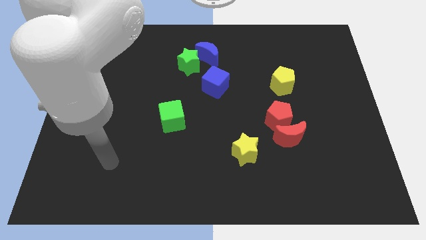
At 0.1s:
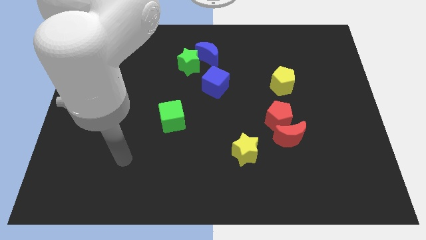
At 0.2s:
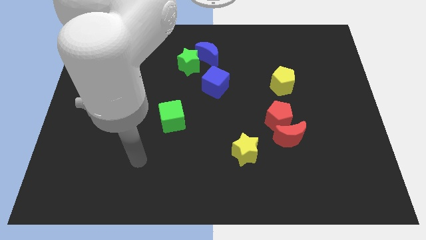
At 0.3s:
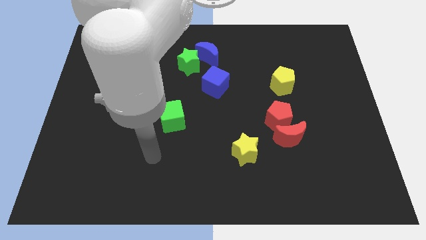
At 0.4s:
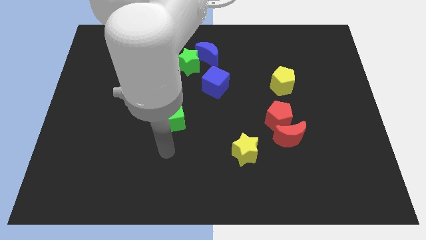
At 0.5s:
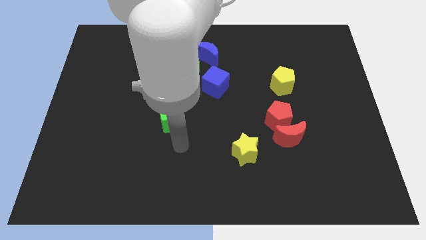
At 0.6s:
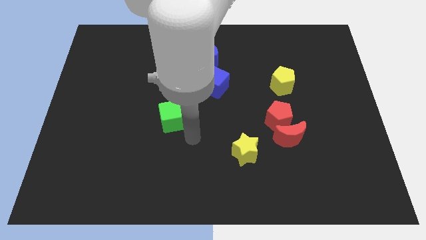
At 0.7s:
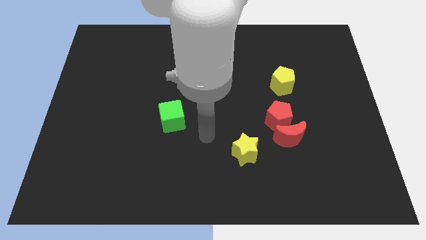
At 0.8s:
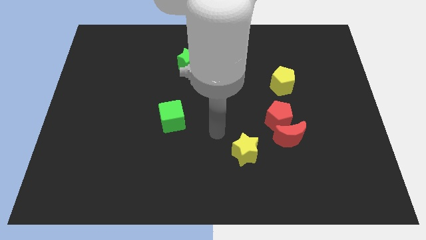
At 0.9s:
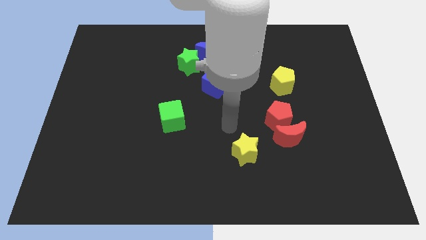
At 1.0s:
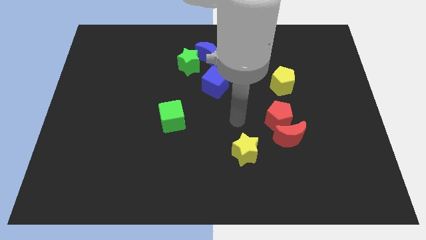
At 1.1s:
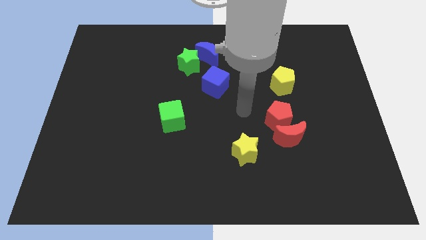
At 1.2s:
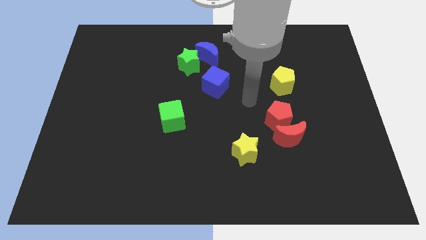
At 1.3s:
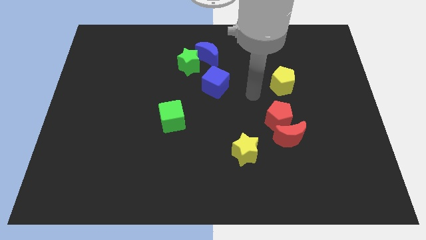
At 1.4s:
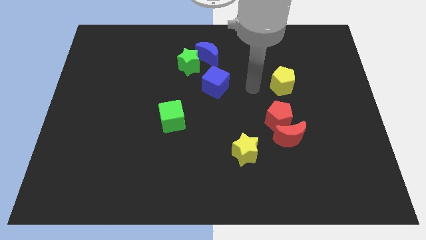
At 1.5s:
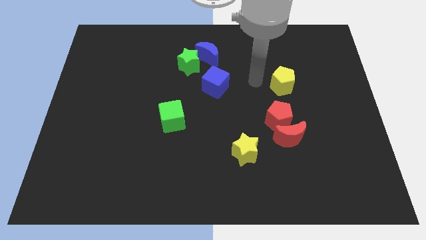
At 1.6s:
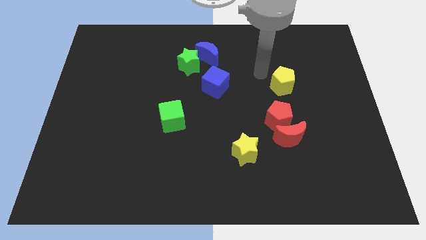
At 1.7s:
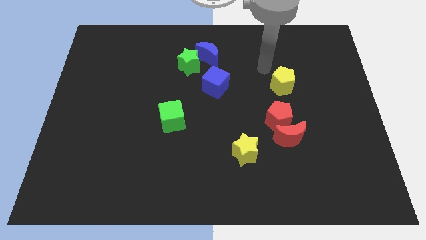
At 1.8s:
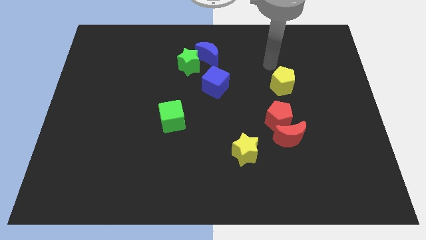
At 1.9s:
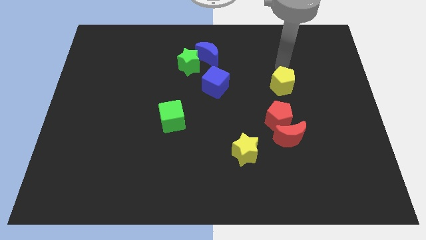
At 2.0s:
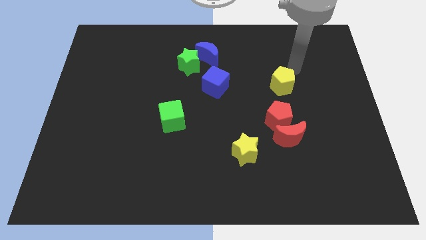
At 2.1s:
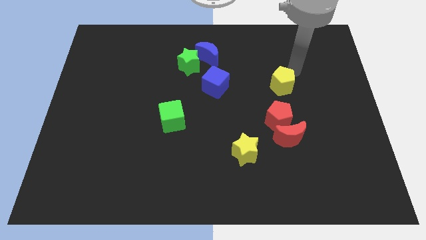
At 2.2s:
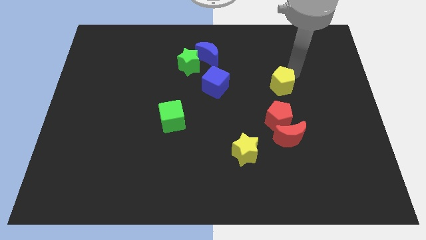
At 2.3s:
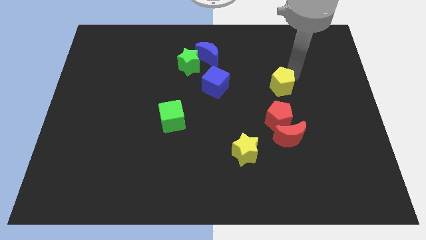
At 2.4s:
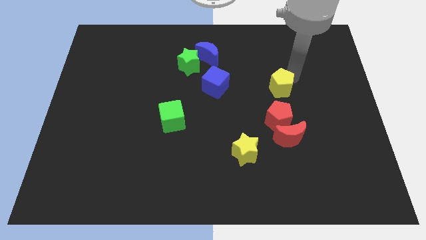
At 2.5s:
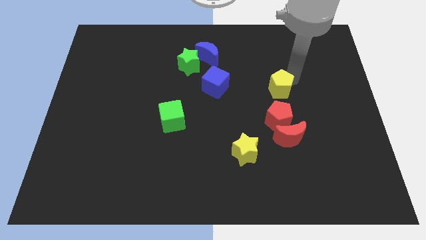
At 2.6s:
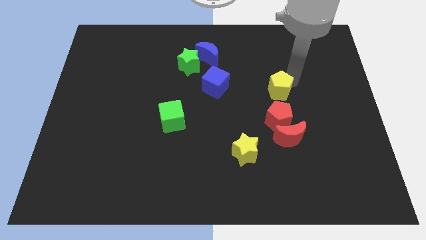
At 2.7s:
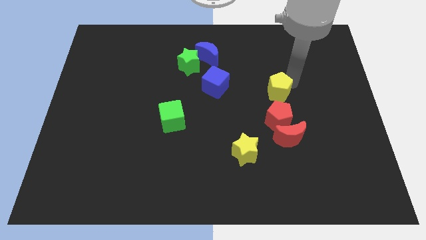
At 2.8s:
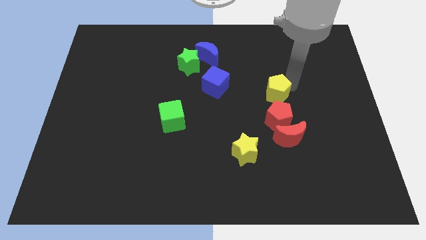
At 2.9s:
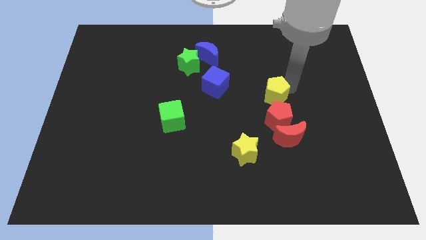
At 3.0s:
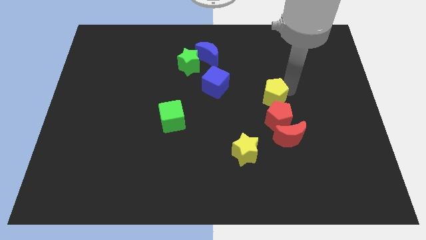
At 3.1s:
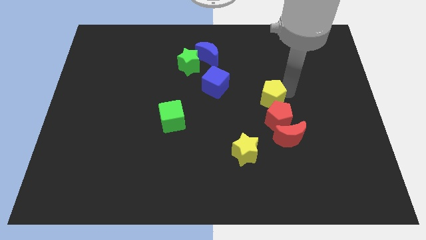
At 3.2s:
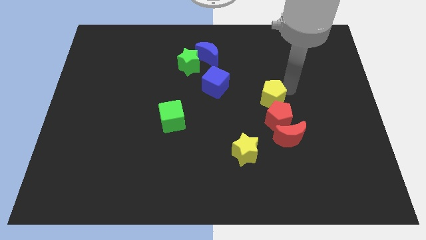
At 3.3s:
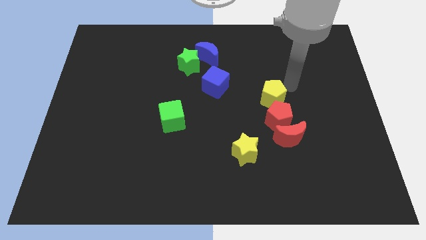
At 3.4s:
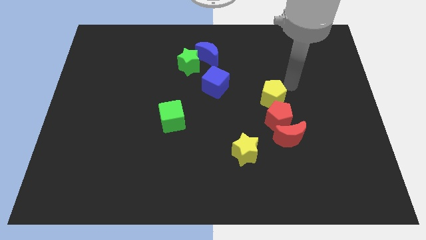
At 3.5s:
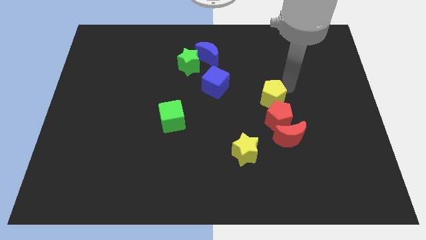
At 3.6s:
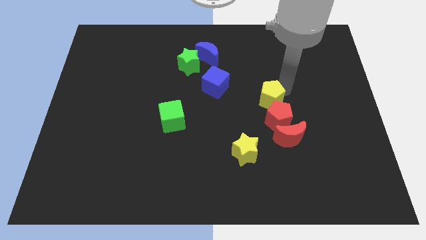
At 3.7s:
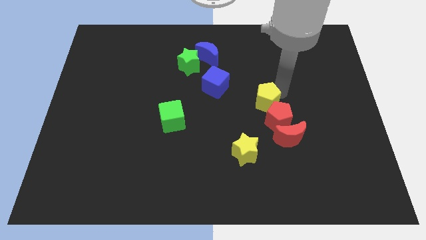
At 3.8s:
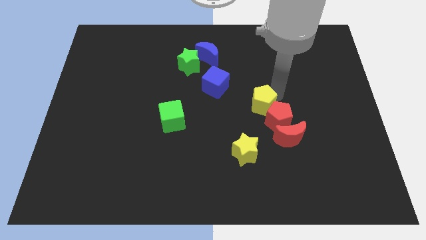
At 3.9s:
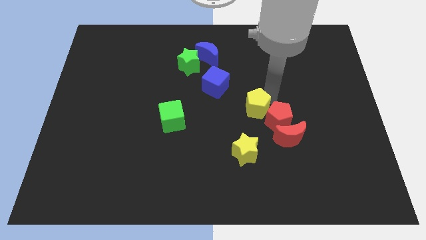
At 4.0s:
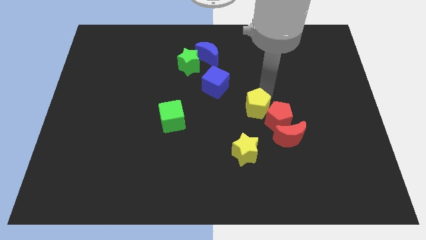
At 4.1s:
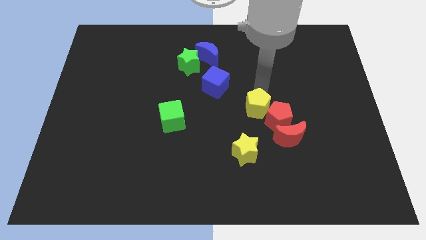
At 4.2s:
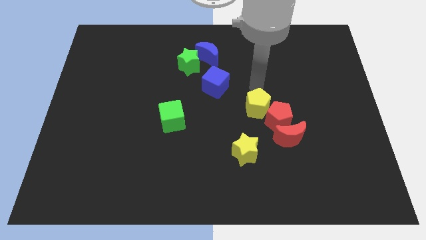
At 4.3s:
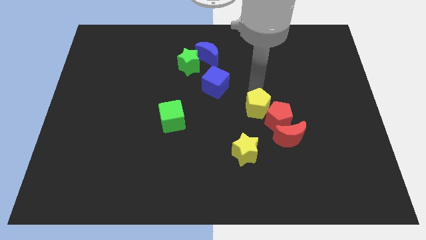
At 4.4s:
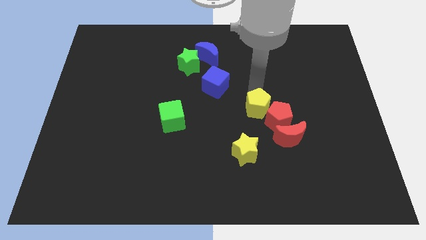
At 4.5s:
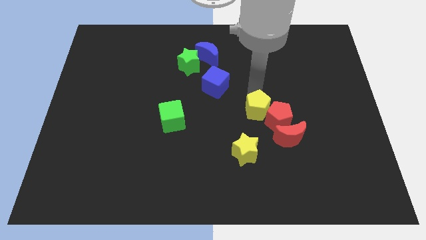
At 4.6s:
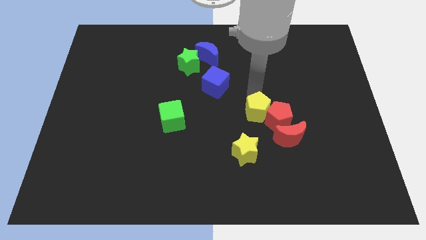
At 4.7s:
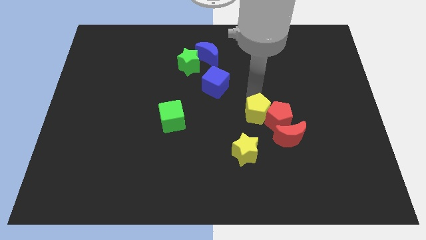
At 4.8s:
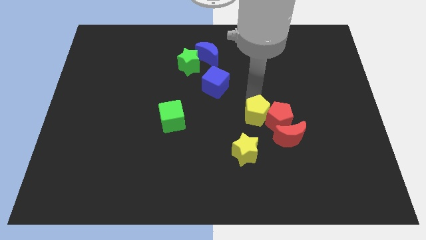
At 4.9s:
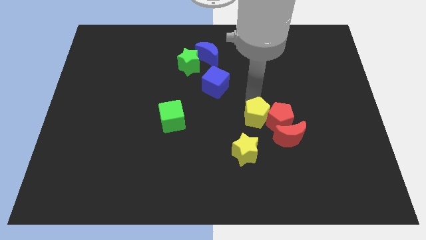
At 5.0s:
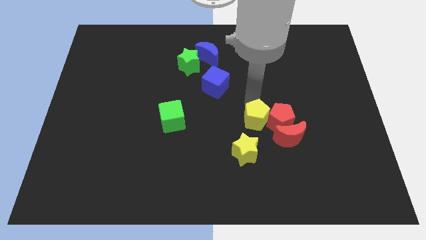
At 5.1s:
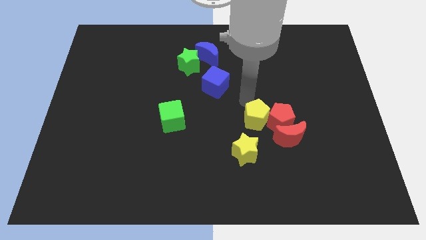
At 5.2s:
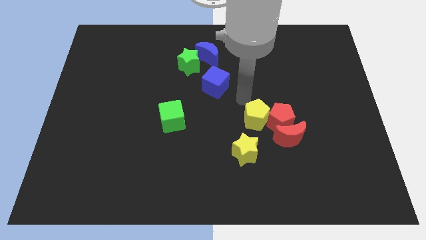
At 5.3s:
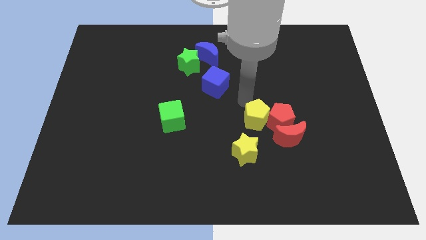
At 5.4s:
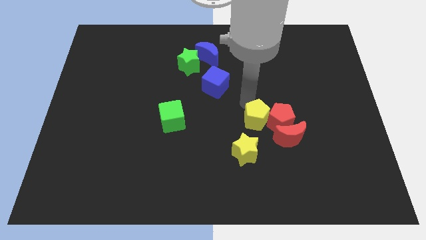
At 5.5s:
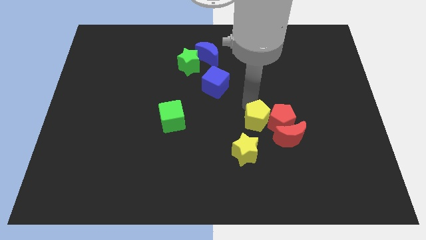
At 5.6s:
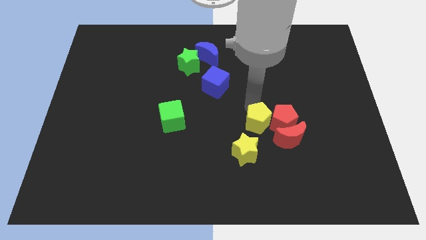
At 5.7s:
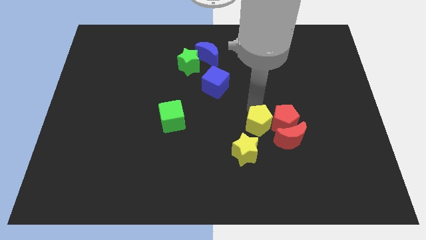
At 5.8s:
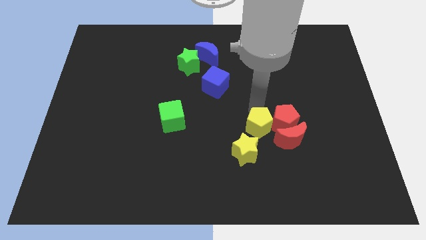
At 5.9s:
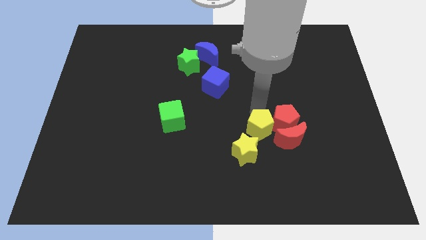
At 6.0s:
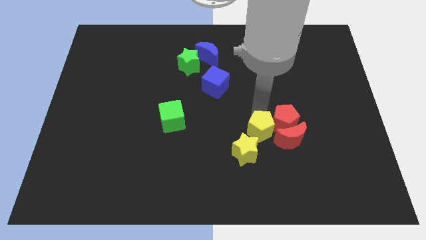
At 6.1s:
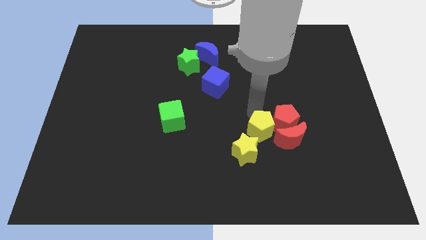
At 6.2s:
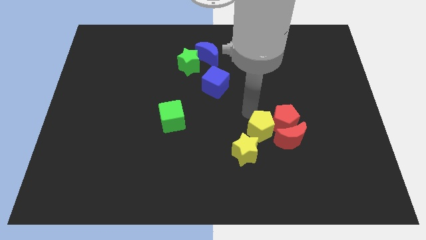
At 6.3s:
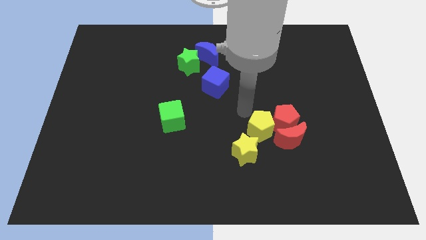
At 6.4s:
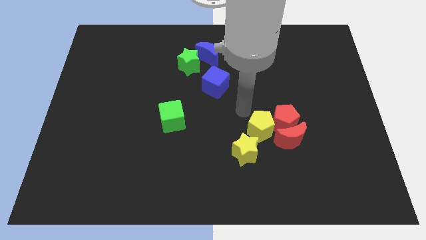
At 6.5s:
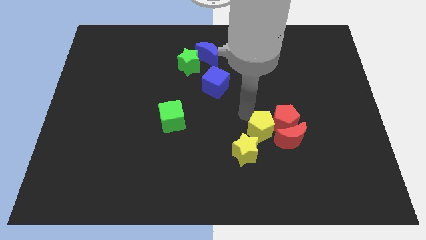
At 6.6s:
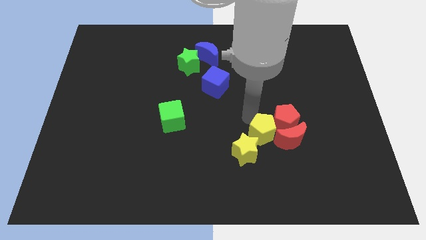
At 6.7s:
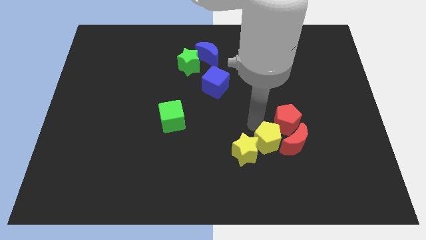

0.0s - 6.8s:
slide the yellow pentagon to the bottom of the red pentagon
